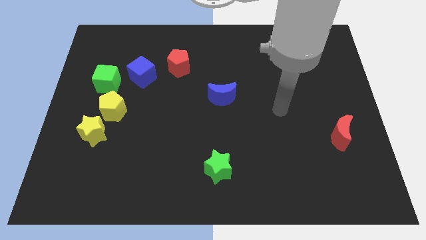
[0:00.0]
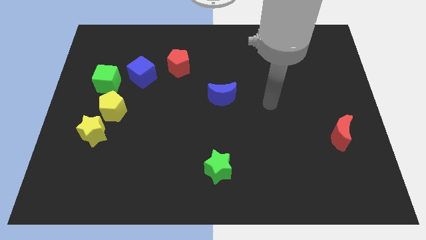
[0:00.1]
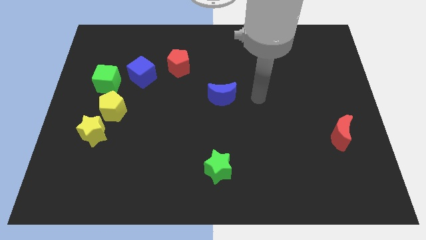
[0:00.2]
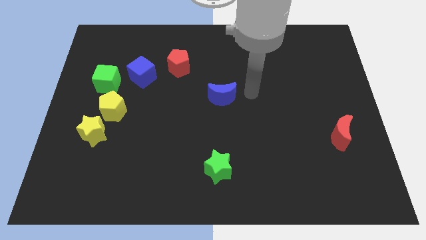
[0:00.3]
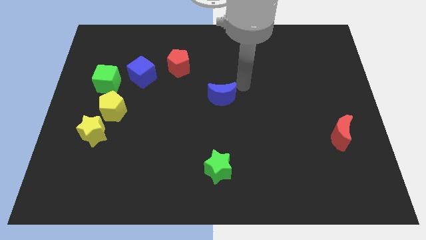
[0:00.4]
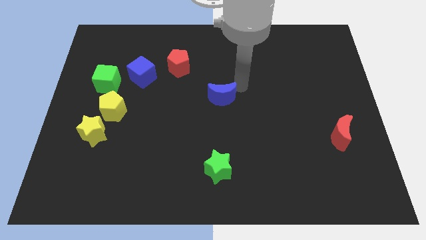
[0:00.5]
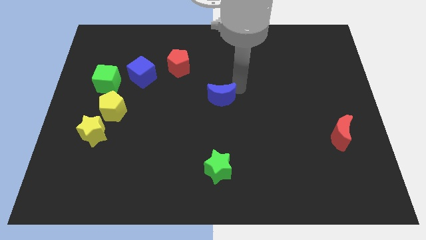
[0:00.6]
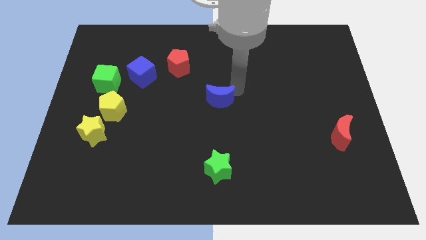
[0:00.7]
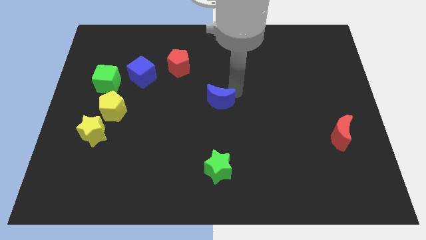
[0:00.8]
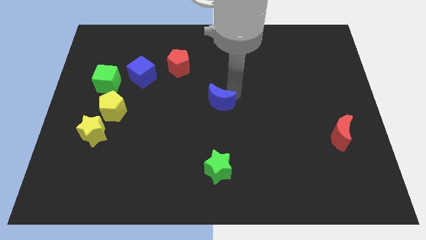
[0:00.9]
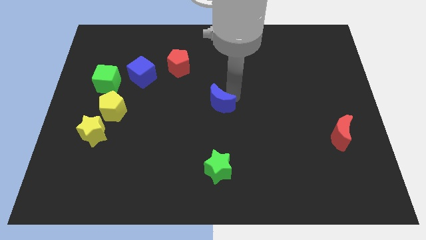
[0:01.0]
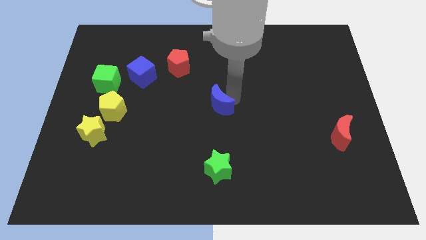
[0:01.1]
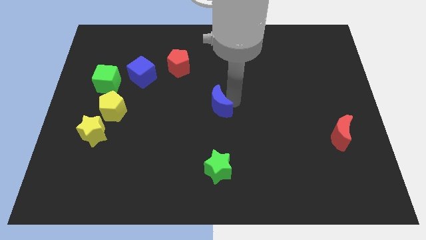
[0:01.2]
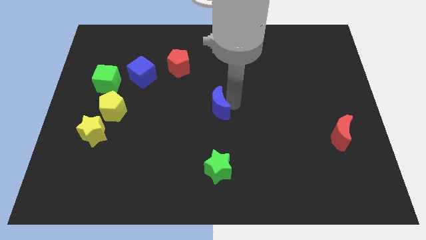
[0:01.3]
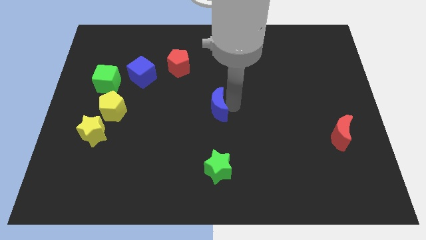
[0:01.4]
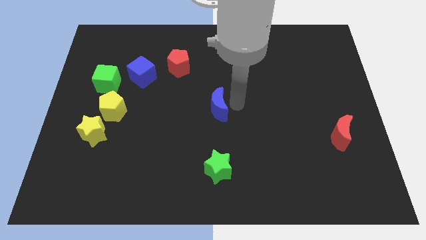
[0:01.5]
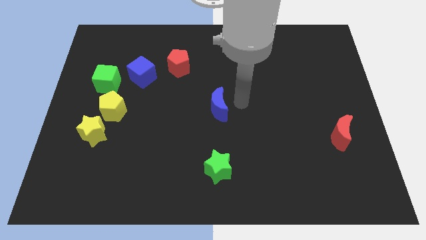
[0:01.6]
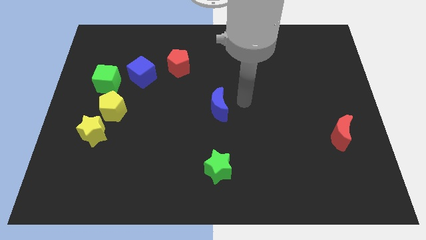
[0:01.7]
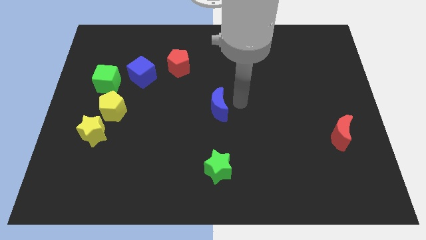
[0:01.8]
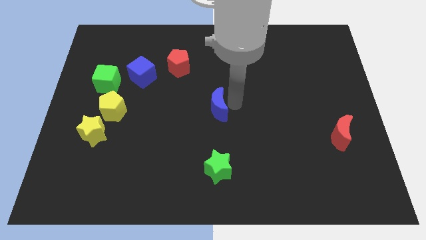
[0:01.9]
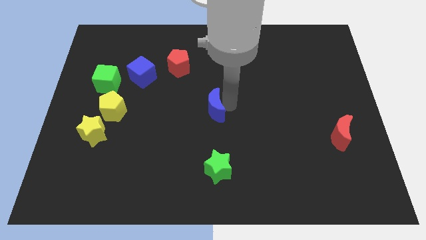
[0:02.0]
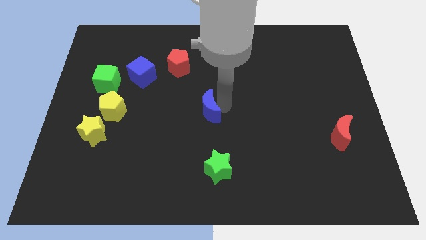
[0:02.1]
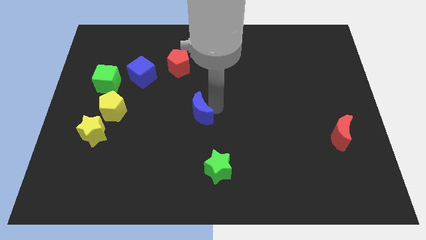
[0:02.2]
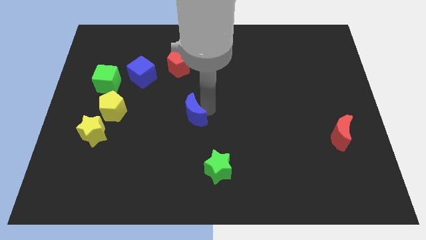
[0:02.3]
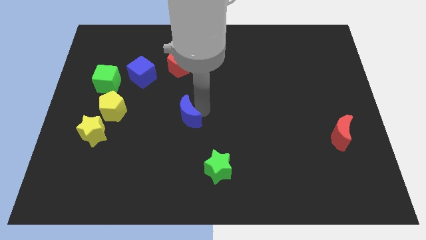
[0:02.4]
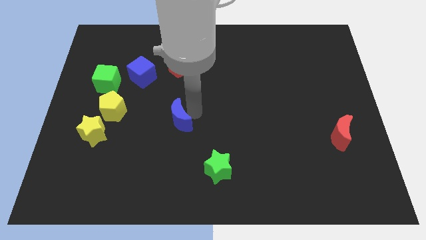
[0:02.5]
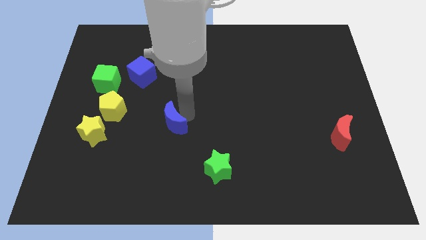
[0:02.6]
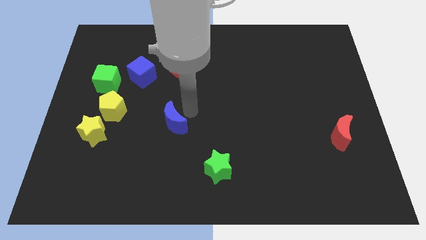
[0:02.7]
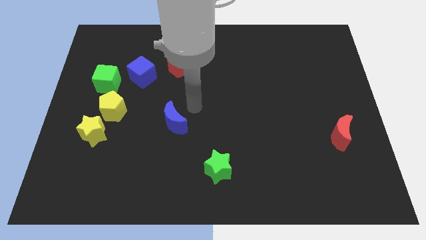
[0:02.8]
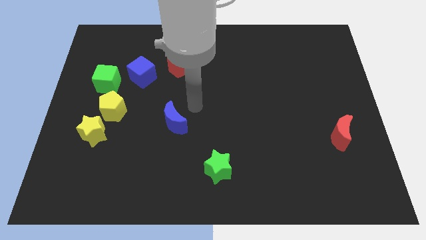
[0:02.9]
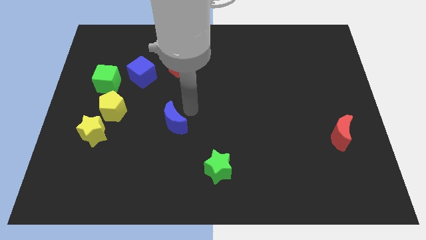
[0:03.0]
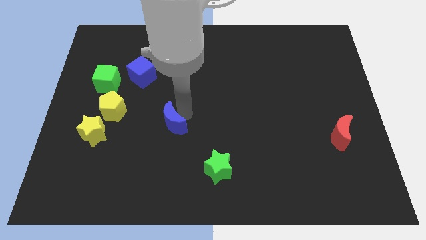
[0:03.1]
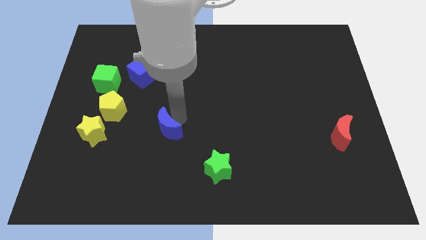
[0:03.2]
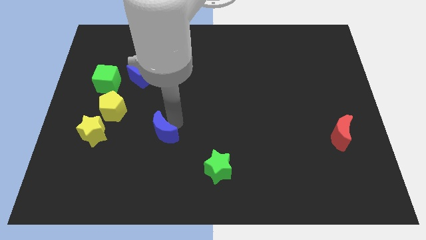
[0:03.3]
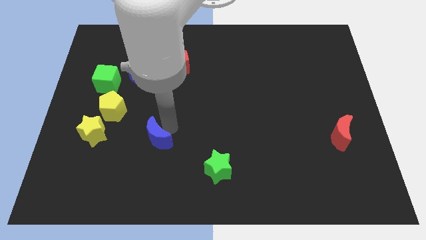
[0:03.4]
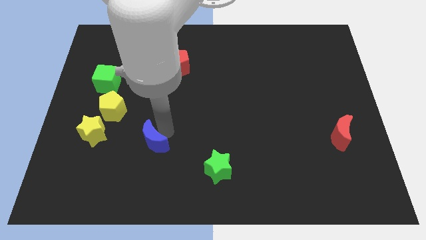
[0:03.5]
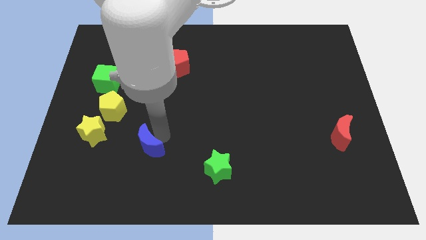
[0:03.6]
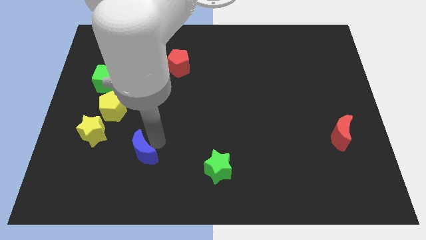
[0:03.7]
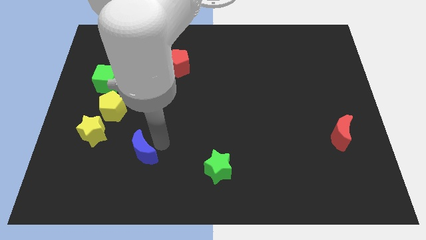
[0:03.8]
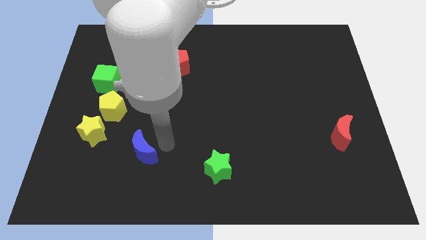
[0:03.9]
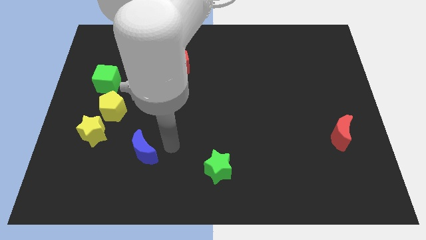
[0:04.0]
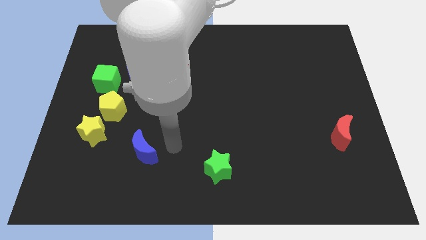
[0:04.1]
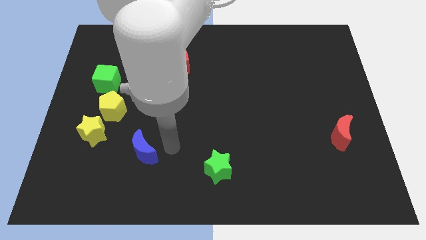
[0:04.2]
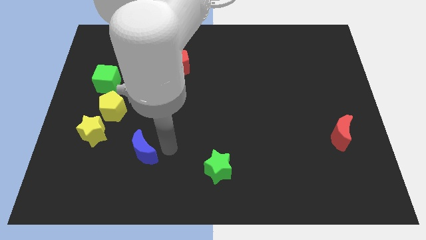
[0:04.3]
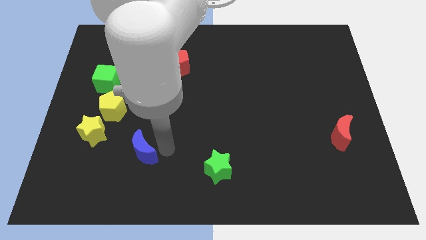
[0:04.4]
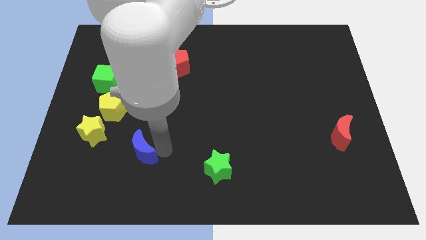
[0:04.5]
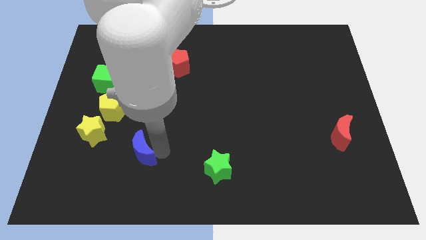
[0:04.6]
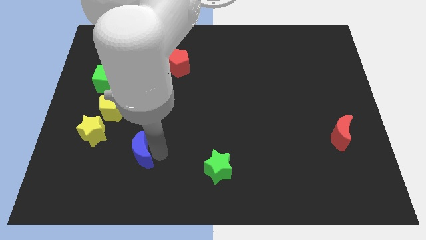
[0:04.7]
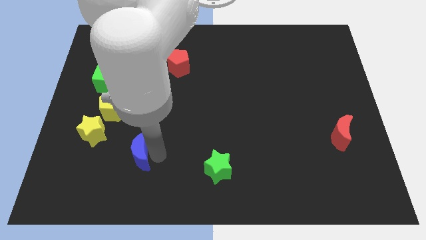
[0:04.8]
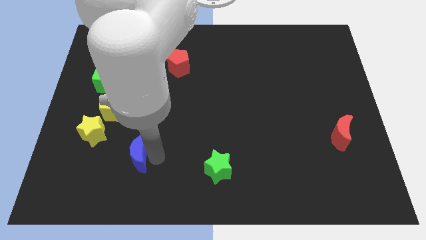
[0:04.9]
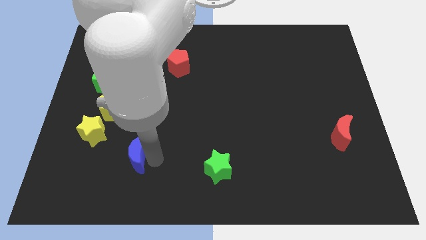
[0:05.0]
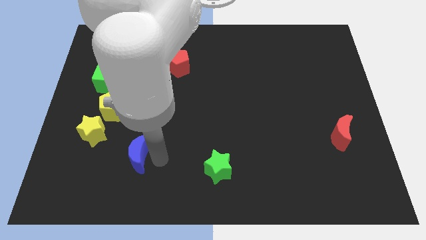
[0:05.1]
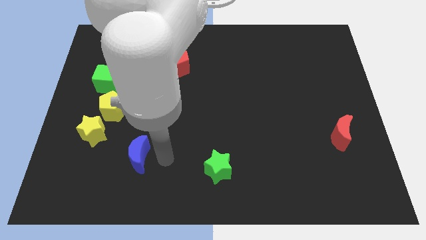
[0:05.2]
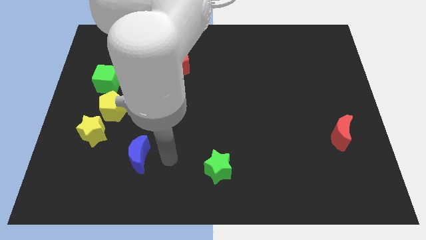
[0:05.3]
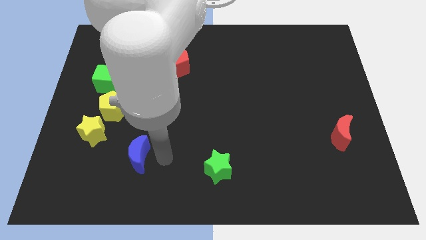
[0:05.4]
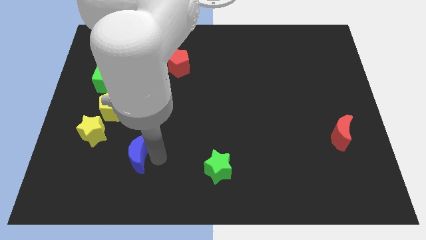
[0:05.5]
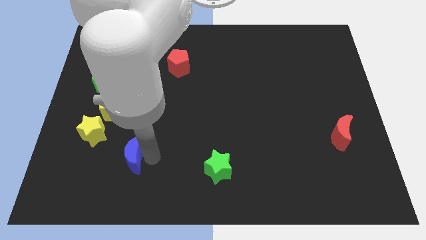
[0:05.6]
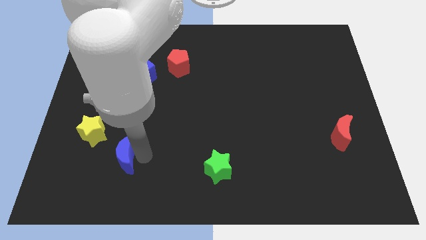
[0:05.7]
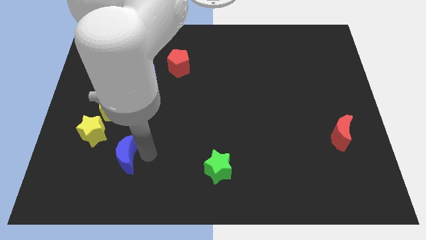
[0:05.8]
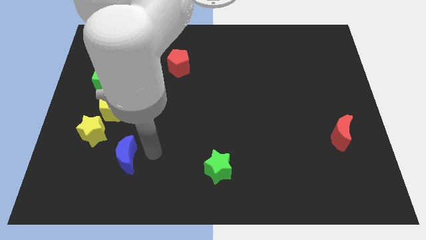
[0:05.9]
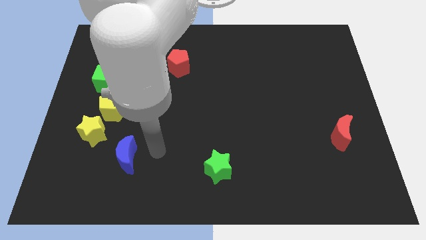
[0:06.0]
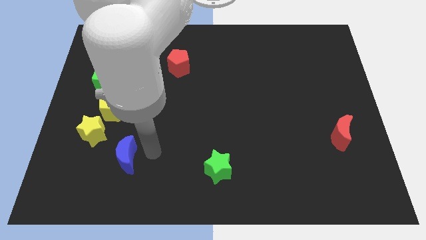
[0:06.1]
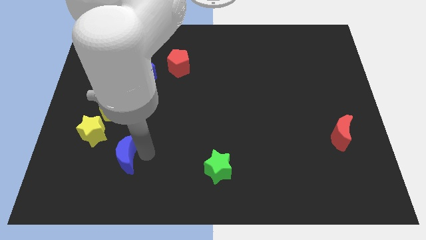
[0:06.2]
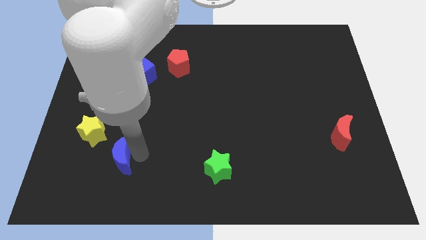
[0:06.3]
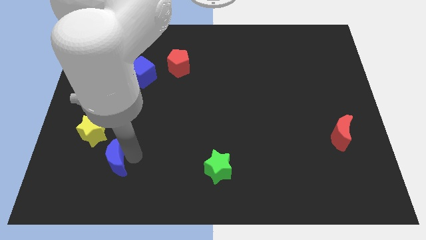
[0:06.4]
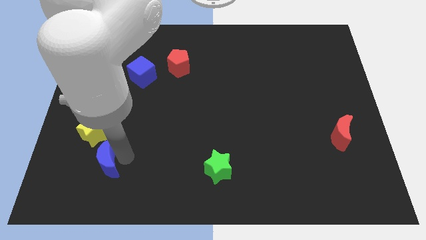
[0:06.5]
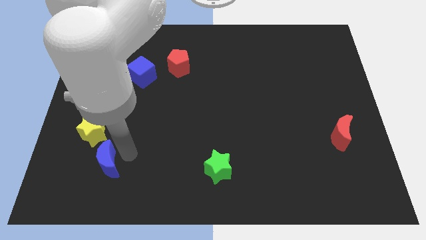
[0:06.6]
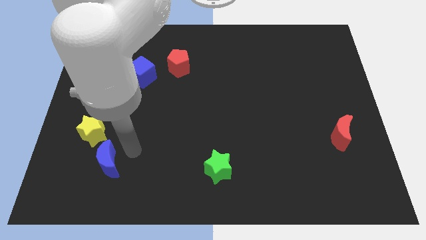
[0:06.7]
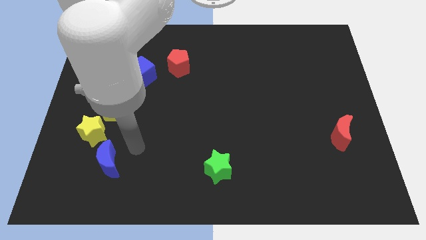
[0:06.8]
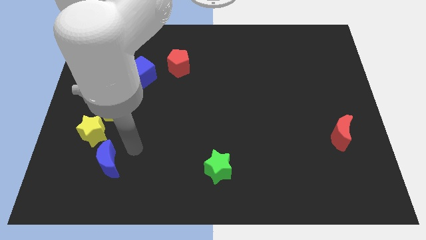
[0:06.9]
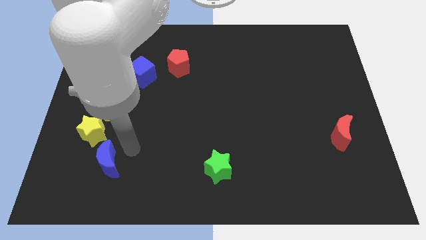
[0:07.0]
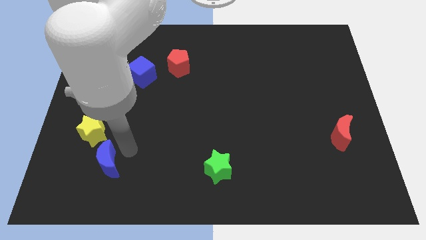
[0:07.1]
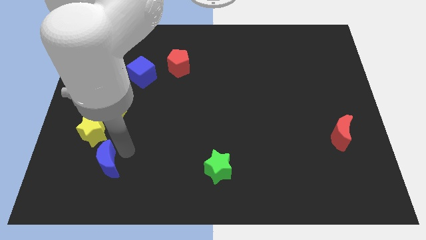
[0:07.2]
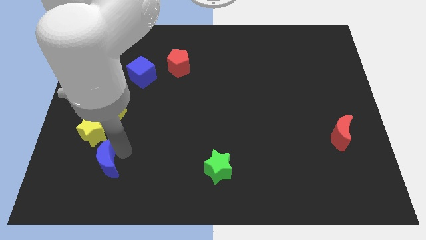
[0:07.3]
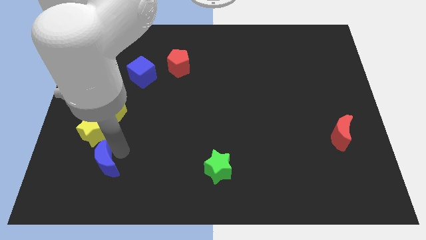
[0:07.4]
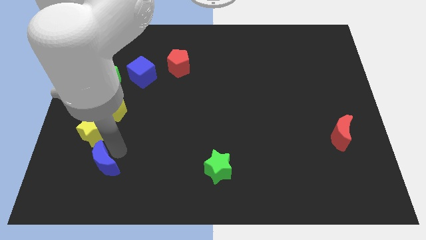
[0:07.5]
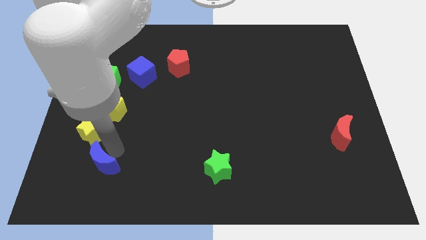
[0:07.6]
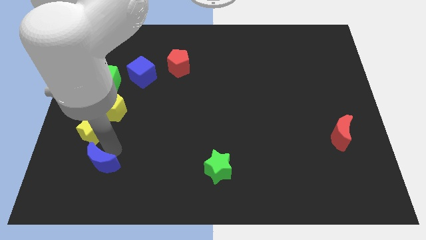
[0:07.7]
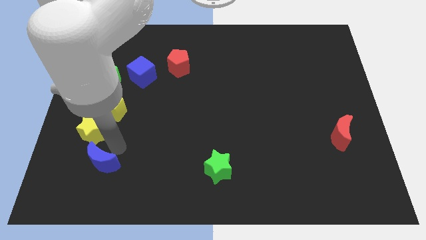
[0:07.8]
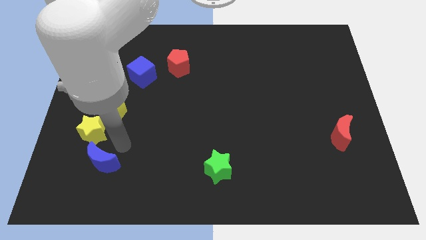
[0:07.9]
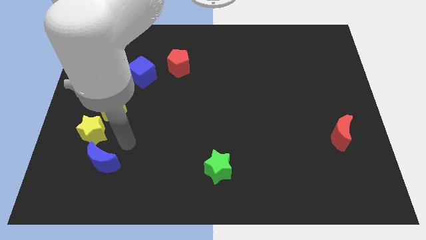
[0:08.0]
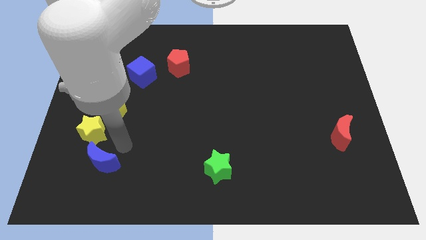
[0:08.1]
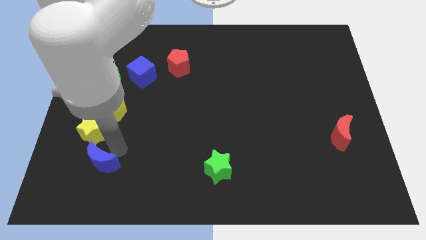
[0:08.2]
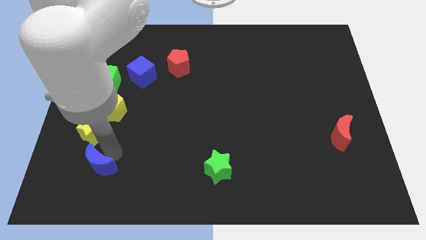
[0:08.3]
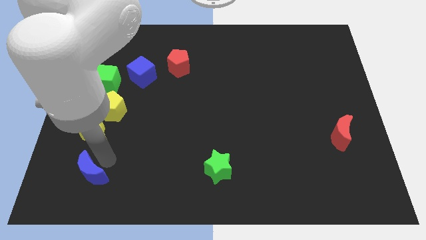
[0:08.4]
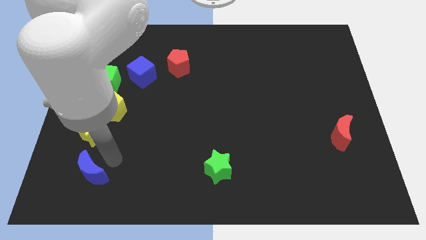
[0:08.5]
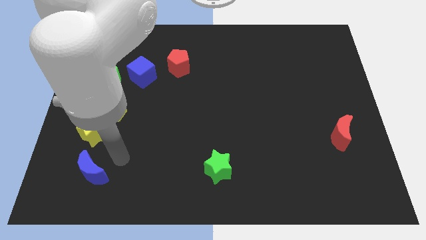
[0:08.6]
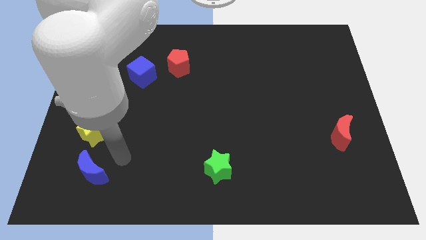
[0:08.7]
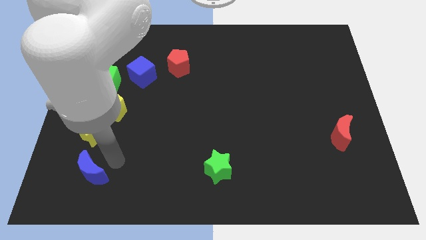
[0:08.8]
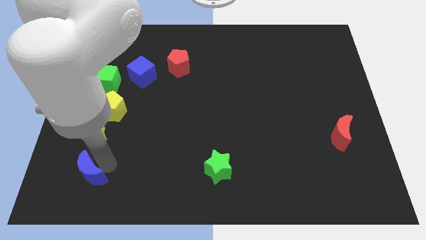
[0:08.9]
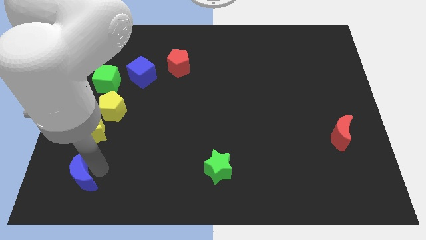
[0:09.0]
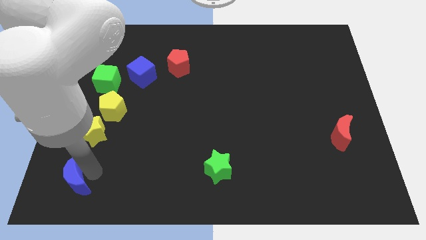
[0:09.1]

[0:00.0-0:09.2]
put the blue moon to the bottom left corner
